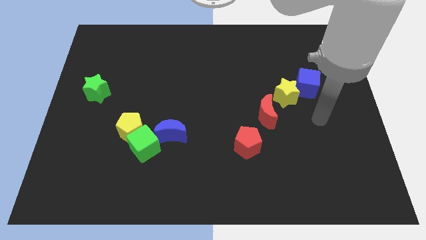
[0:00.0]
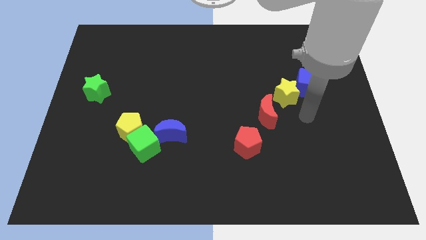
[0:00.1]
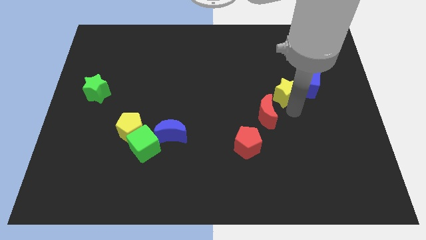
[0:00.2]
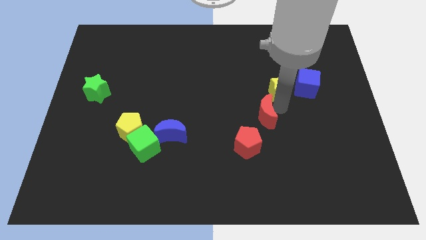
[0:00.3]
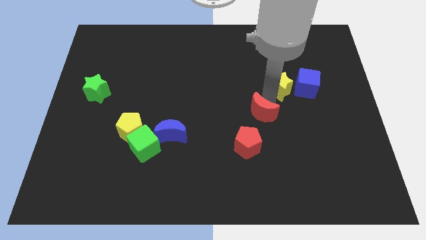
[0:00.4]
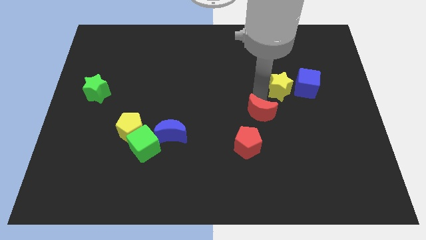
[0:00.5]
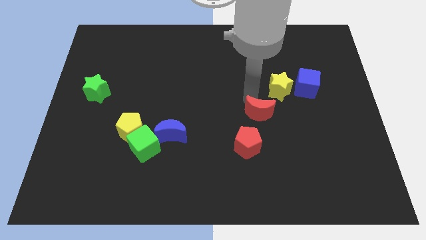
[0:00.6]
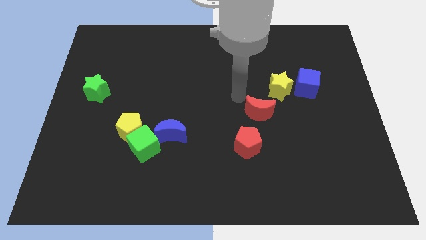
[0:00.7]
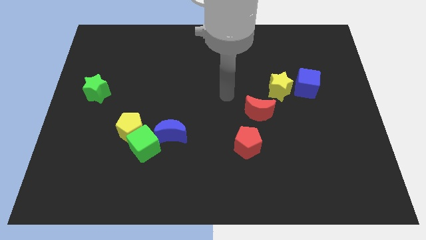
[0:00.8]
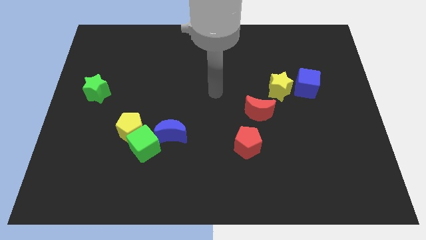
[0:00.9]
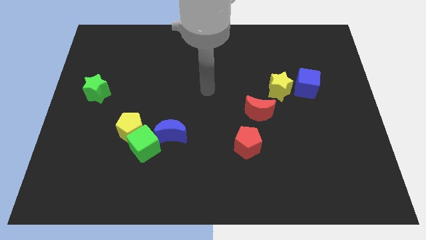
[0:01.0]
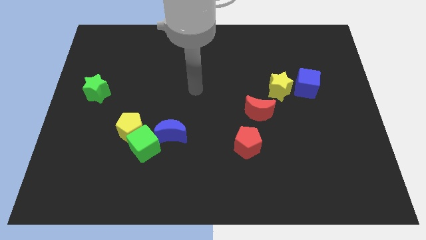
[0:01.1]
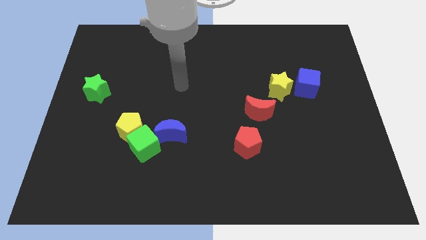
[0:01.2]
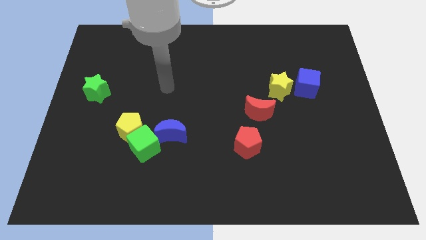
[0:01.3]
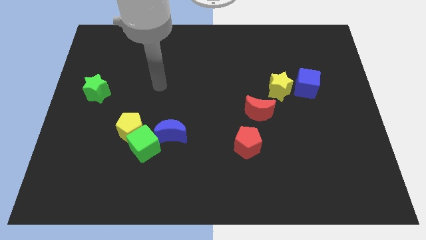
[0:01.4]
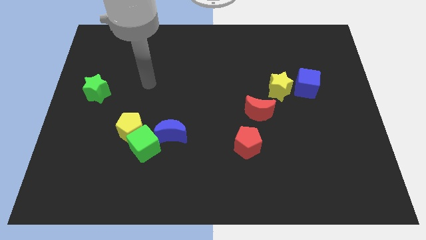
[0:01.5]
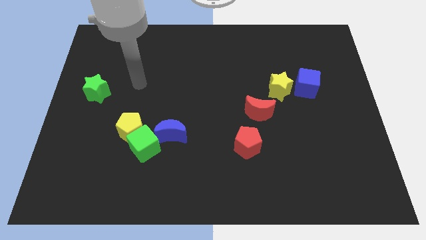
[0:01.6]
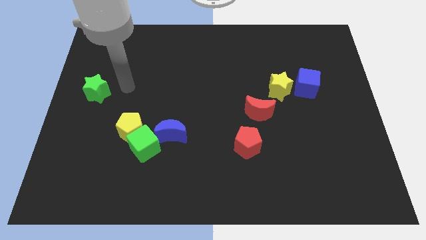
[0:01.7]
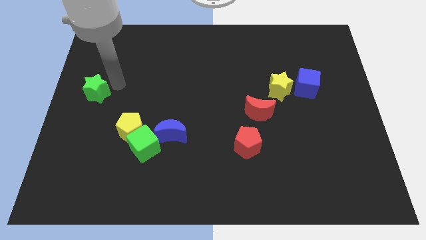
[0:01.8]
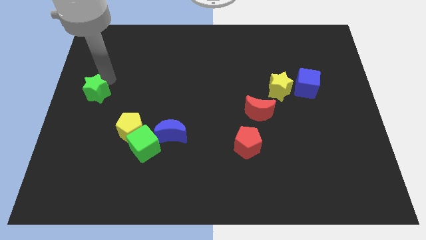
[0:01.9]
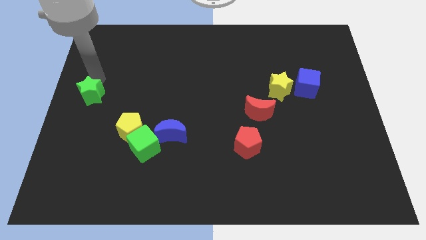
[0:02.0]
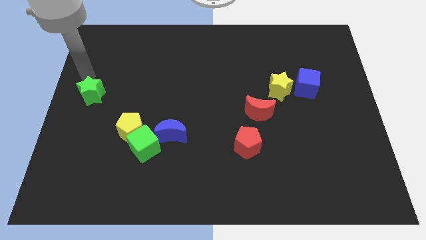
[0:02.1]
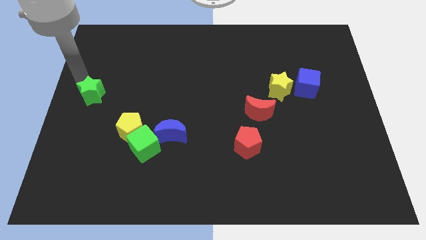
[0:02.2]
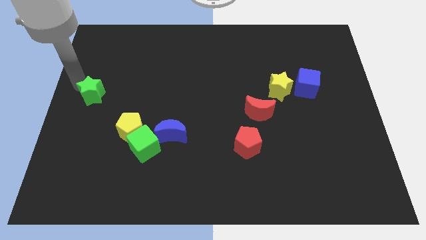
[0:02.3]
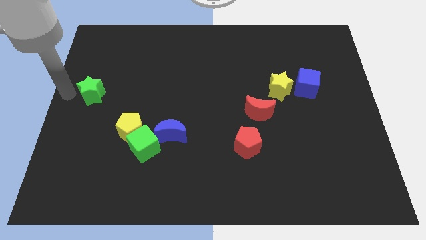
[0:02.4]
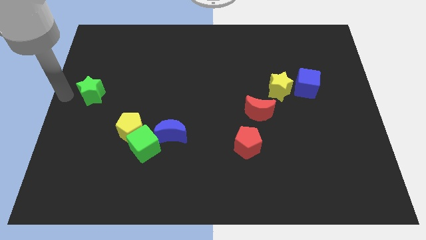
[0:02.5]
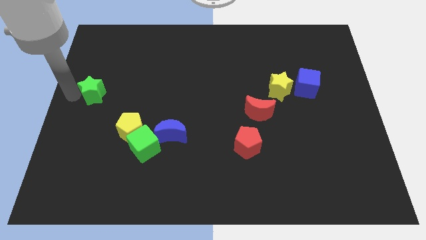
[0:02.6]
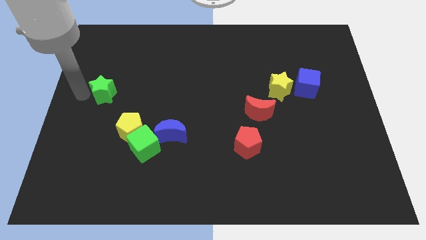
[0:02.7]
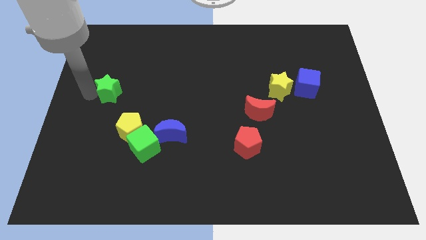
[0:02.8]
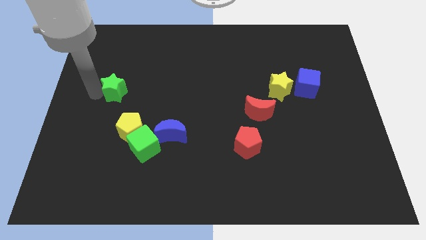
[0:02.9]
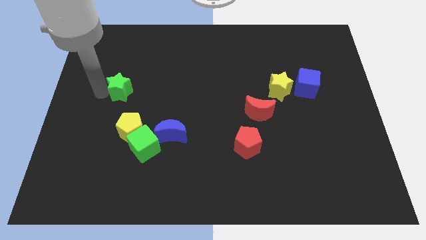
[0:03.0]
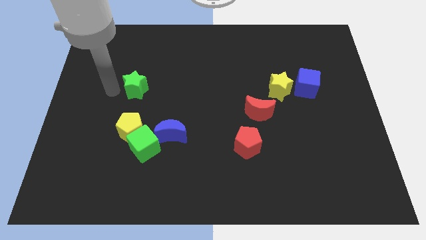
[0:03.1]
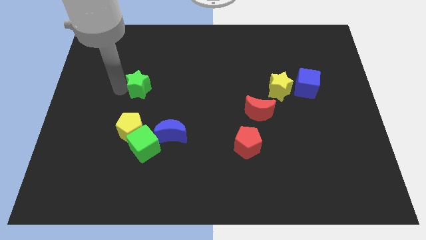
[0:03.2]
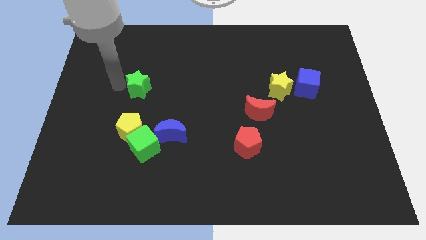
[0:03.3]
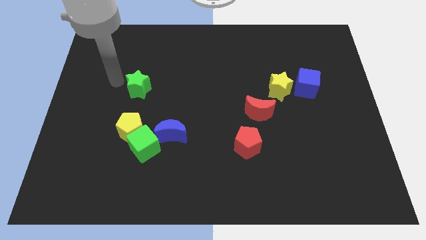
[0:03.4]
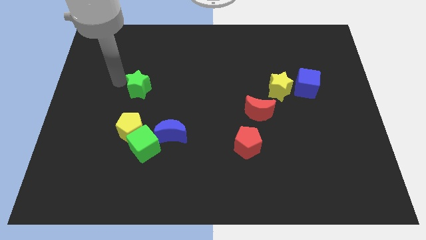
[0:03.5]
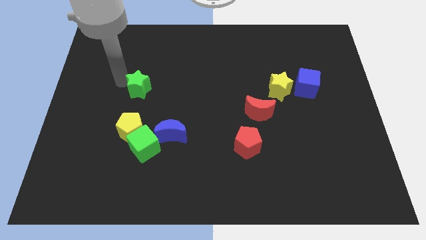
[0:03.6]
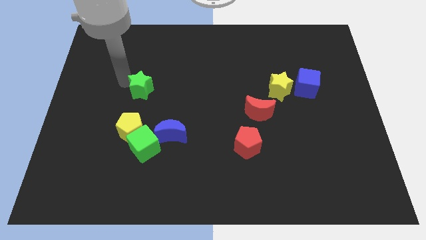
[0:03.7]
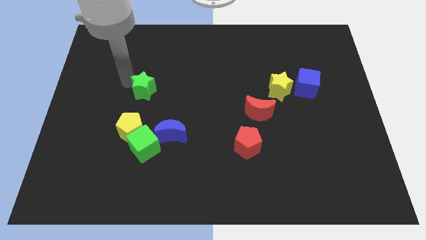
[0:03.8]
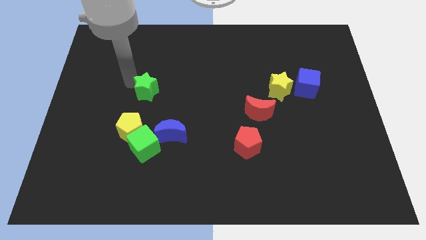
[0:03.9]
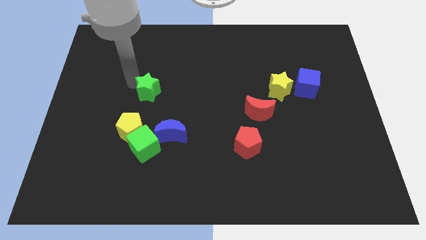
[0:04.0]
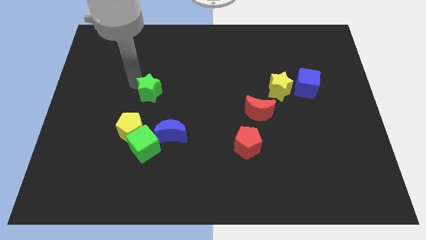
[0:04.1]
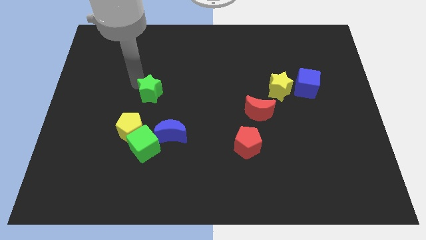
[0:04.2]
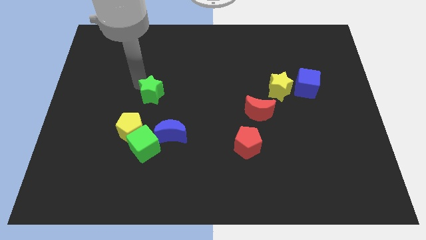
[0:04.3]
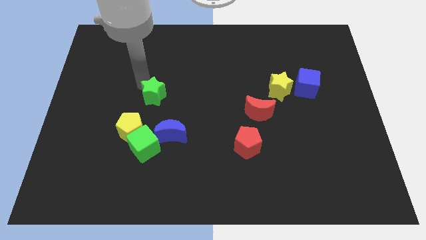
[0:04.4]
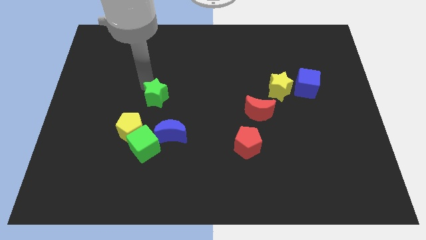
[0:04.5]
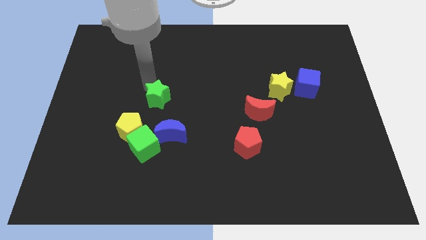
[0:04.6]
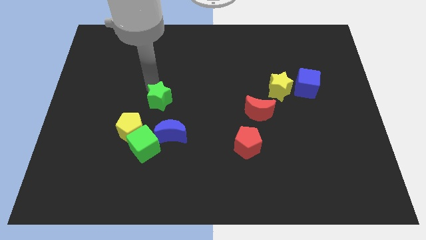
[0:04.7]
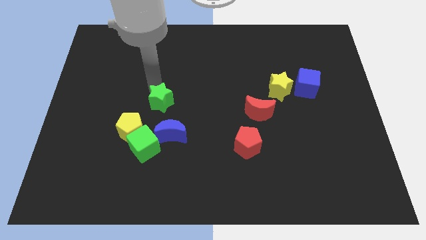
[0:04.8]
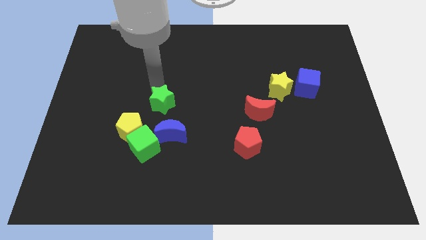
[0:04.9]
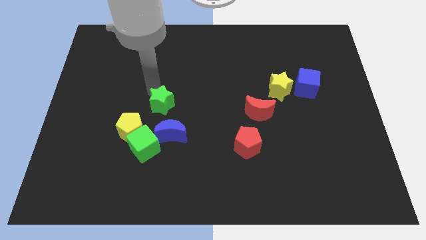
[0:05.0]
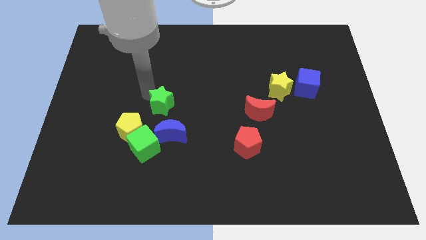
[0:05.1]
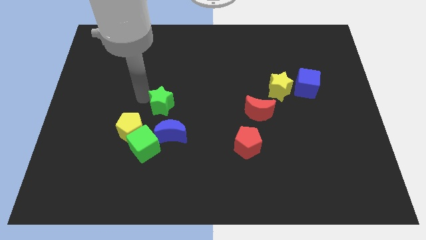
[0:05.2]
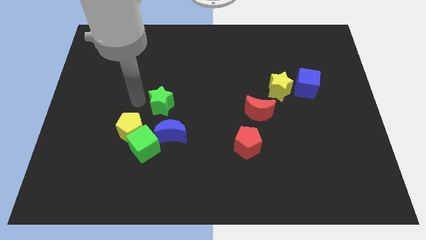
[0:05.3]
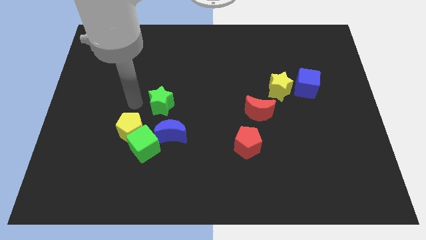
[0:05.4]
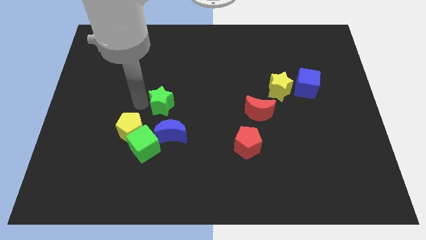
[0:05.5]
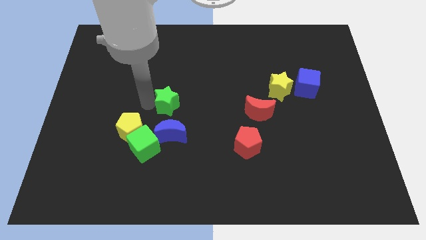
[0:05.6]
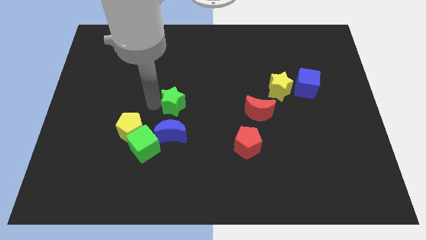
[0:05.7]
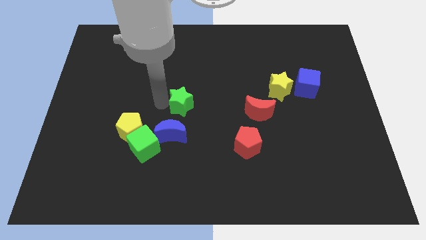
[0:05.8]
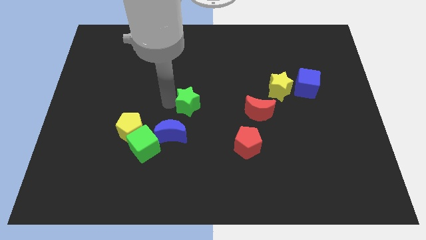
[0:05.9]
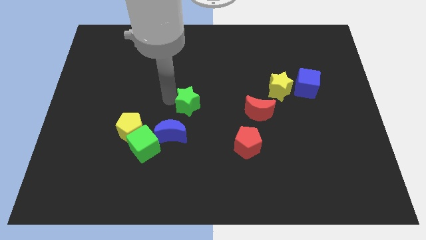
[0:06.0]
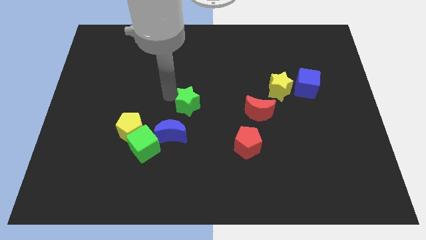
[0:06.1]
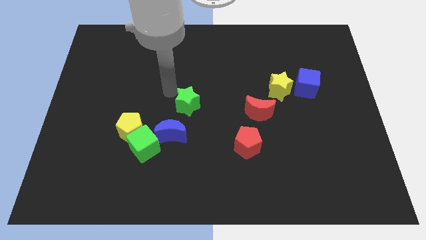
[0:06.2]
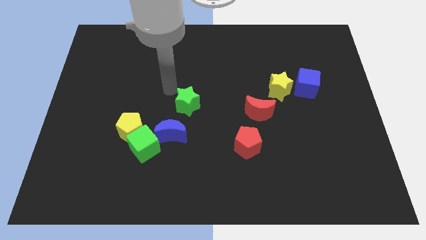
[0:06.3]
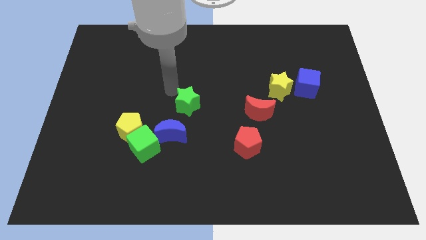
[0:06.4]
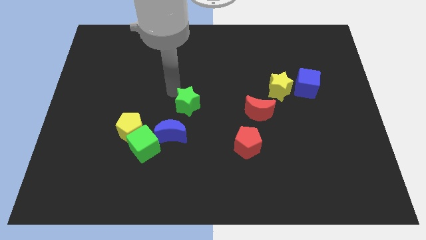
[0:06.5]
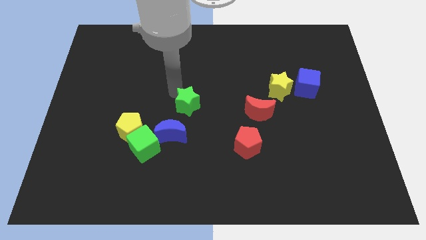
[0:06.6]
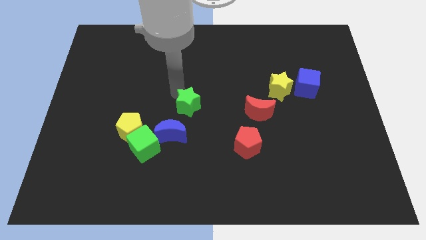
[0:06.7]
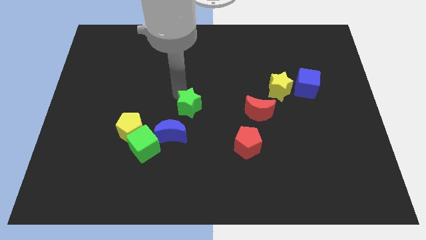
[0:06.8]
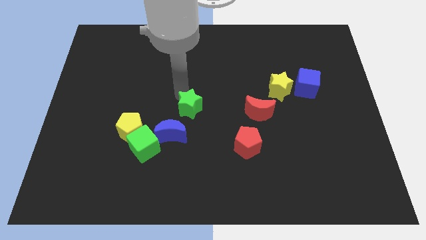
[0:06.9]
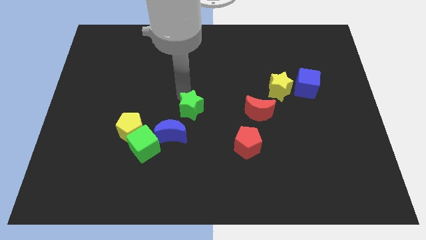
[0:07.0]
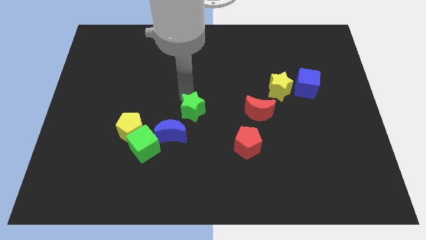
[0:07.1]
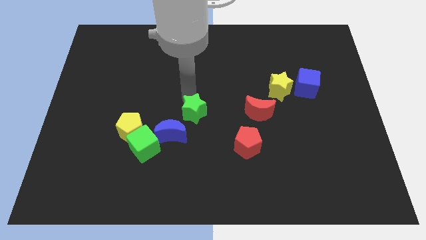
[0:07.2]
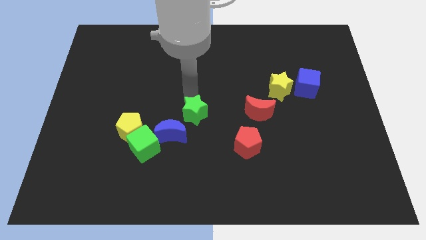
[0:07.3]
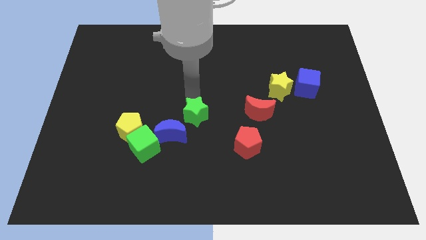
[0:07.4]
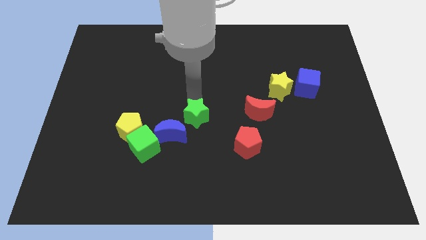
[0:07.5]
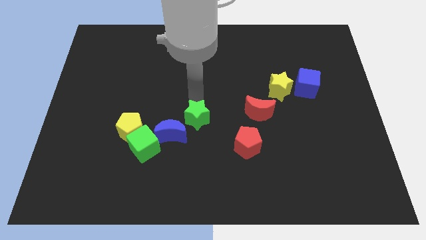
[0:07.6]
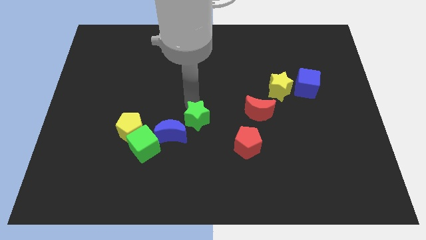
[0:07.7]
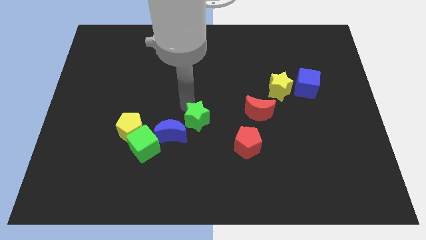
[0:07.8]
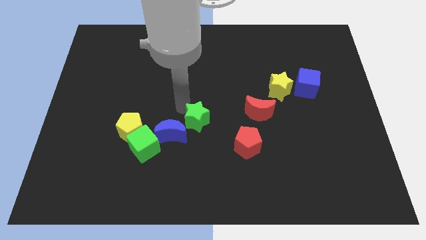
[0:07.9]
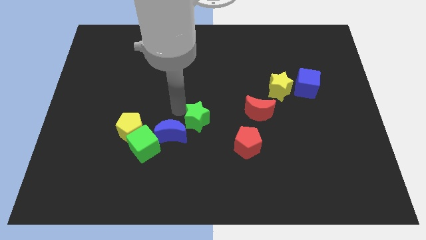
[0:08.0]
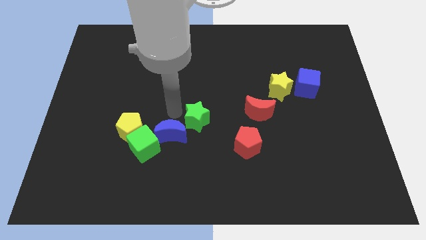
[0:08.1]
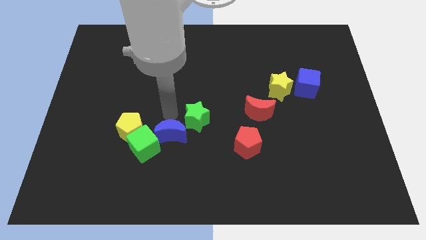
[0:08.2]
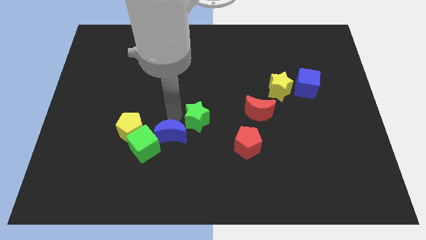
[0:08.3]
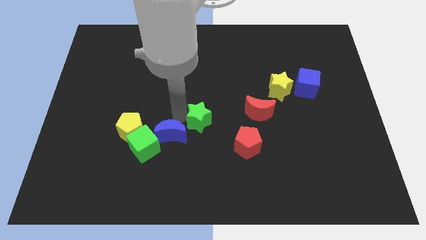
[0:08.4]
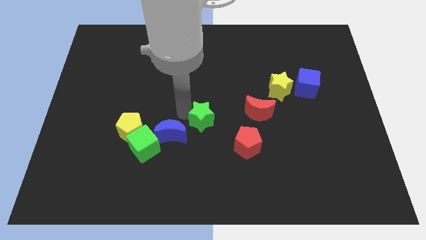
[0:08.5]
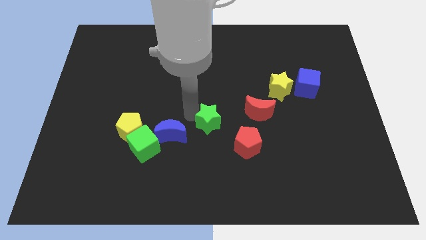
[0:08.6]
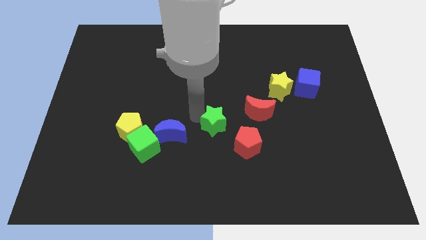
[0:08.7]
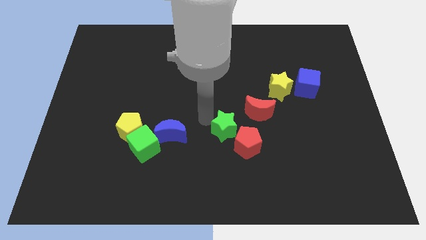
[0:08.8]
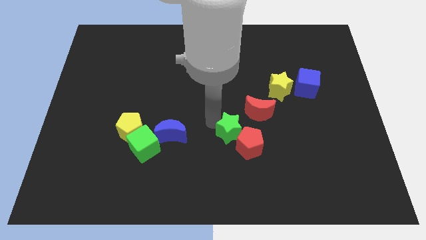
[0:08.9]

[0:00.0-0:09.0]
push the green star next to the red pentagon
